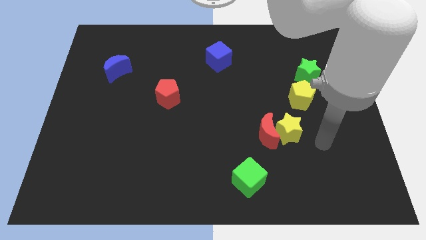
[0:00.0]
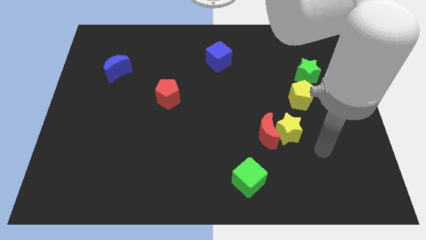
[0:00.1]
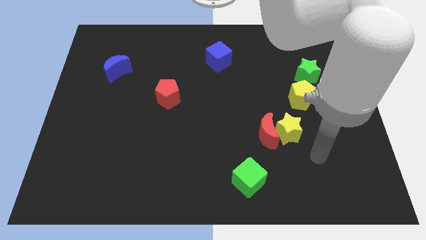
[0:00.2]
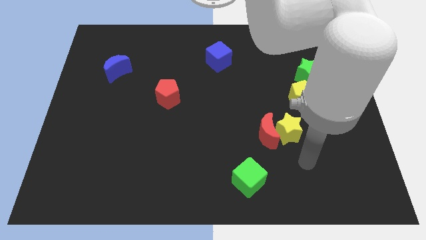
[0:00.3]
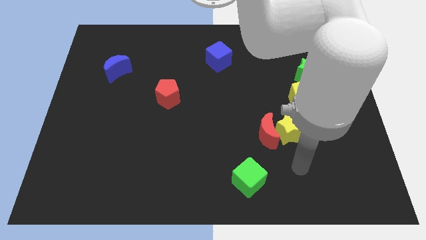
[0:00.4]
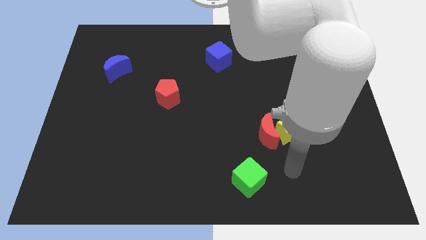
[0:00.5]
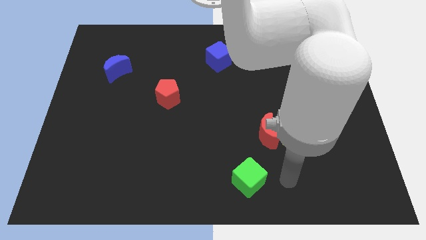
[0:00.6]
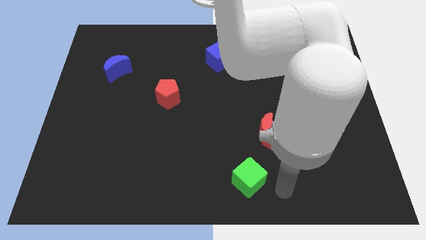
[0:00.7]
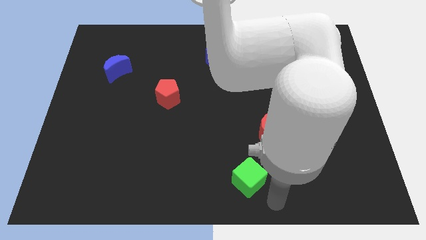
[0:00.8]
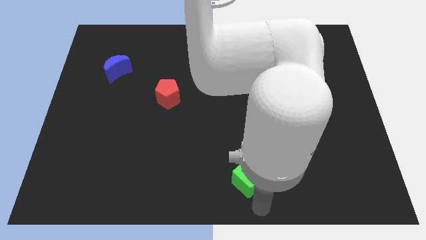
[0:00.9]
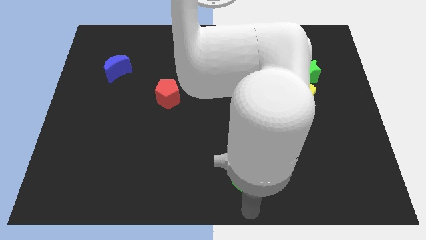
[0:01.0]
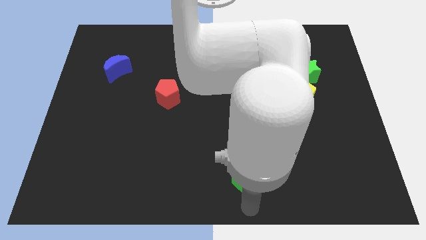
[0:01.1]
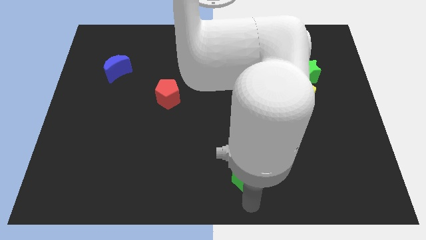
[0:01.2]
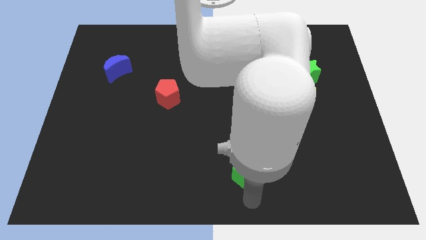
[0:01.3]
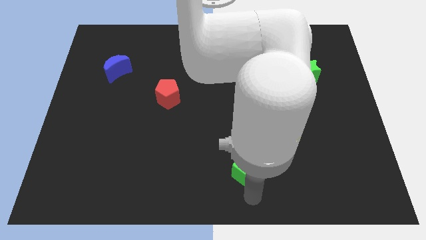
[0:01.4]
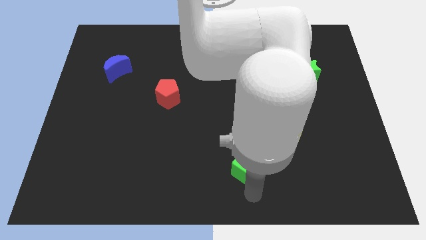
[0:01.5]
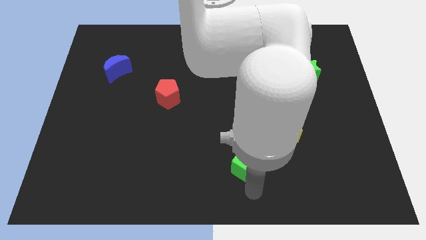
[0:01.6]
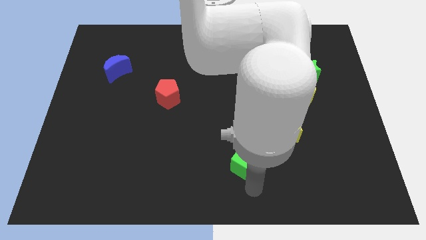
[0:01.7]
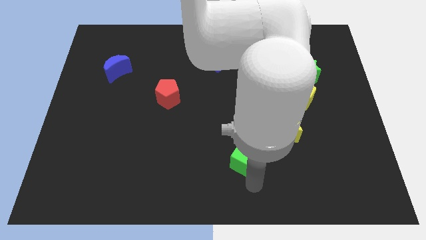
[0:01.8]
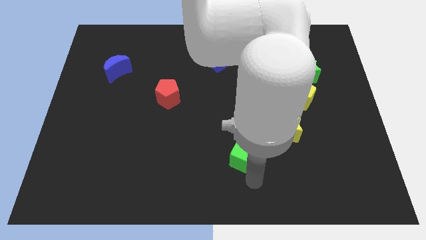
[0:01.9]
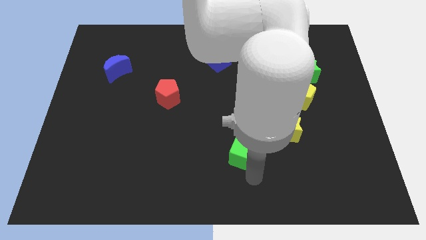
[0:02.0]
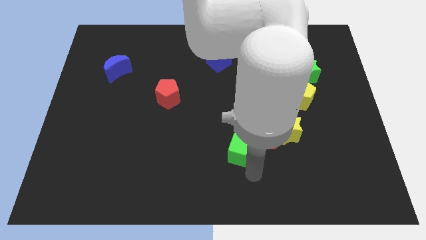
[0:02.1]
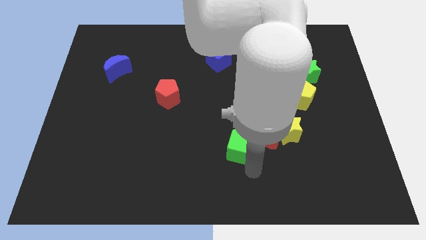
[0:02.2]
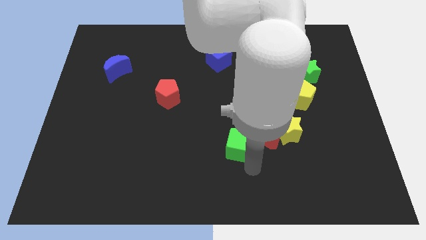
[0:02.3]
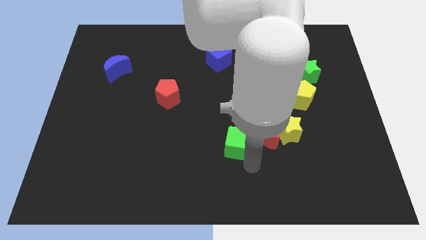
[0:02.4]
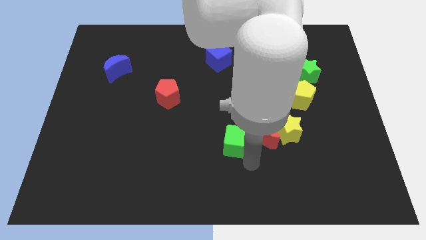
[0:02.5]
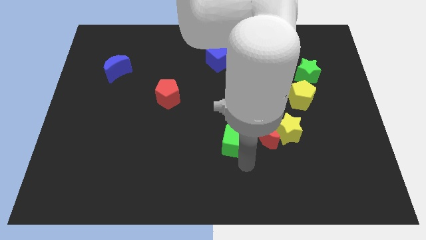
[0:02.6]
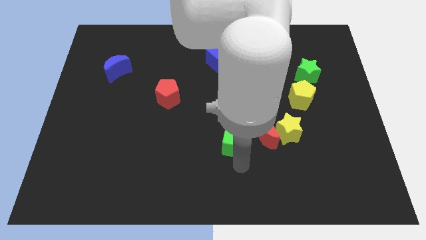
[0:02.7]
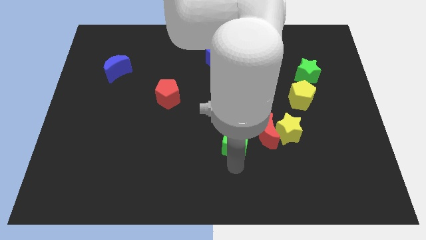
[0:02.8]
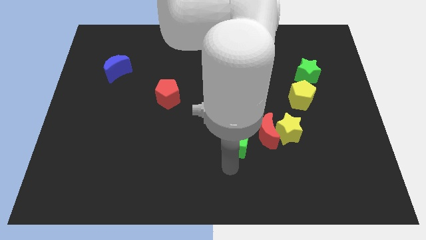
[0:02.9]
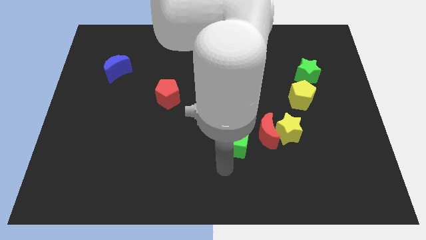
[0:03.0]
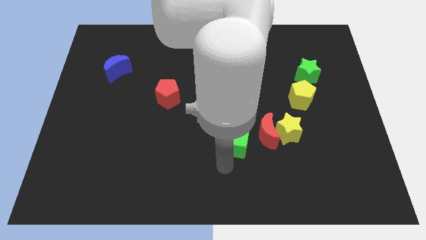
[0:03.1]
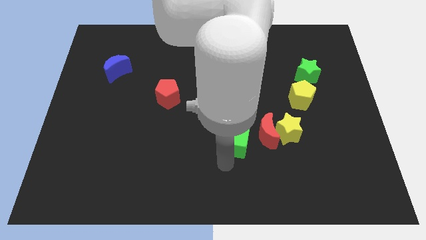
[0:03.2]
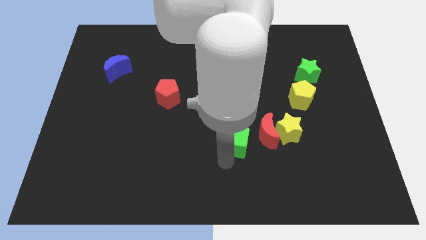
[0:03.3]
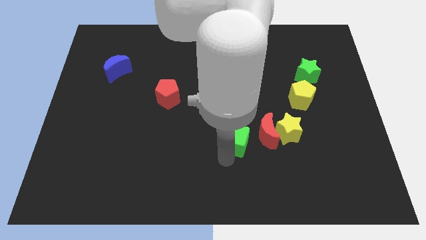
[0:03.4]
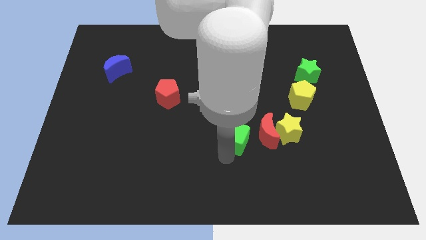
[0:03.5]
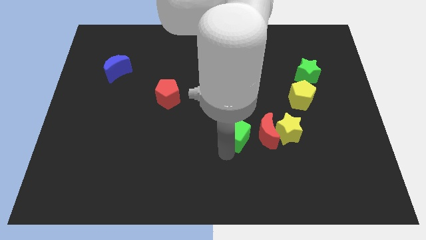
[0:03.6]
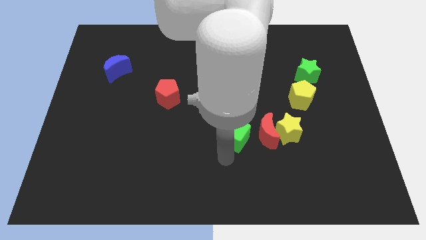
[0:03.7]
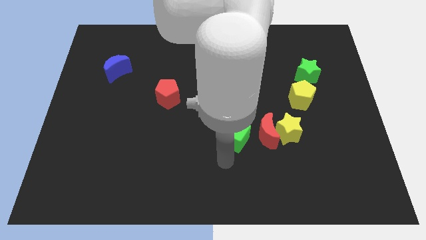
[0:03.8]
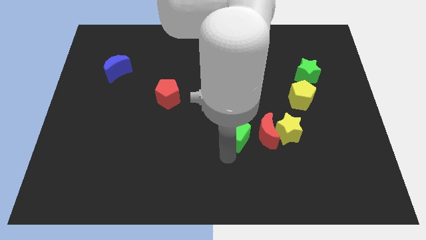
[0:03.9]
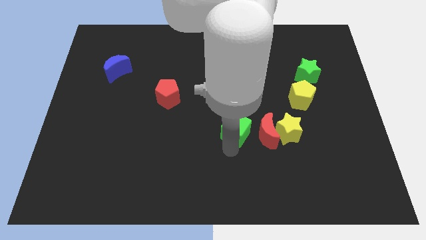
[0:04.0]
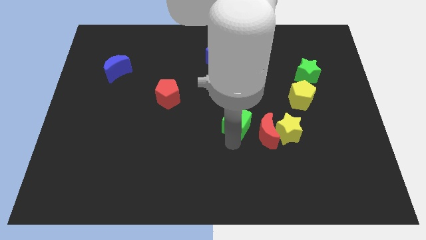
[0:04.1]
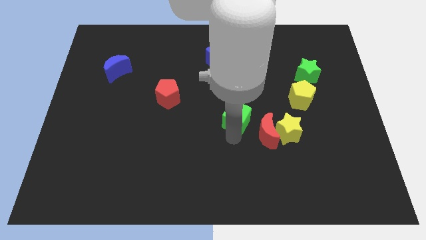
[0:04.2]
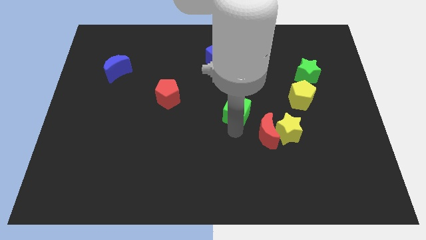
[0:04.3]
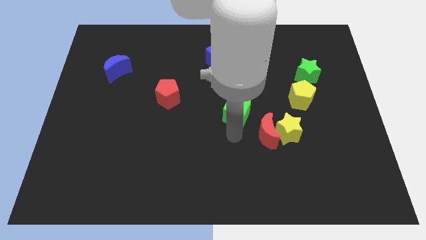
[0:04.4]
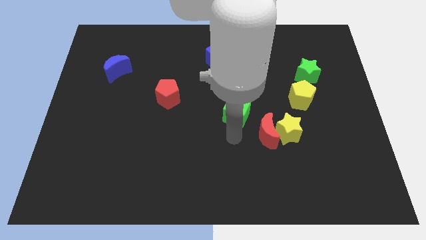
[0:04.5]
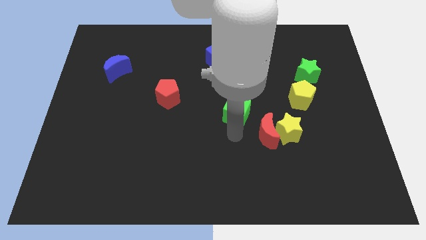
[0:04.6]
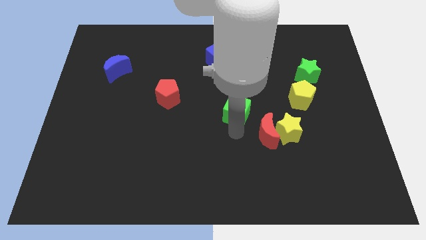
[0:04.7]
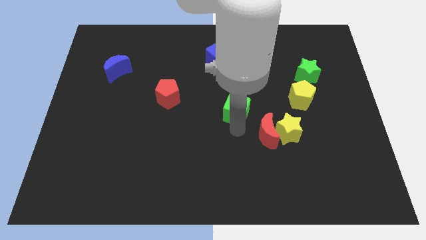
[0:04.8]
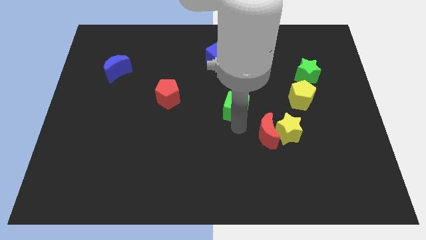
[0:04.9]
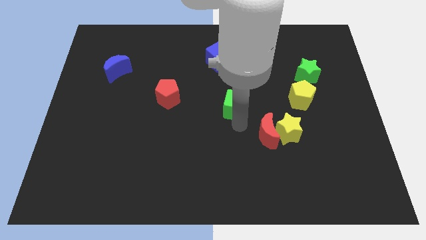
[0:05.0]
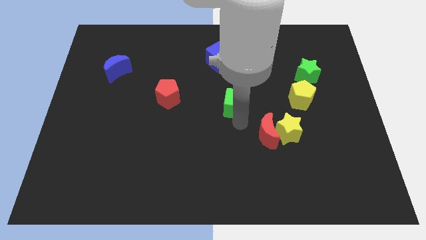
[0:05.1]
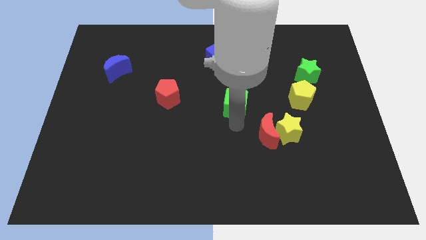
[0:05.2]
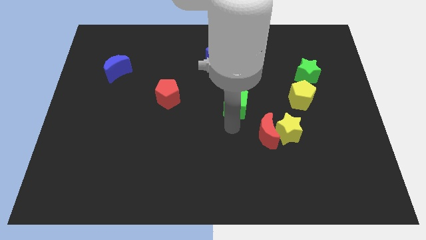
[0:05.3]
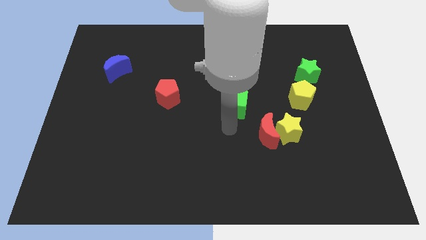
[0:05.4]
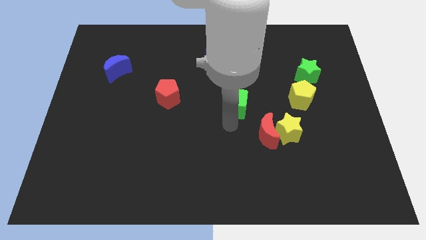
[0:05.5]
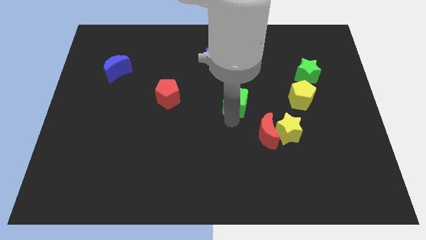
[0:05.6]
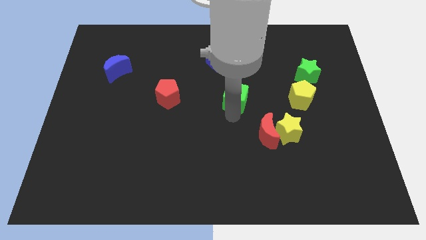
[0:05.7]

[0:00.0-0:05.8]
slide the green cube upwards

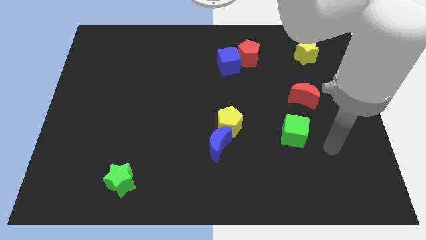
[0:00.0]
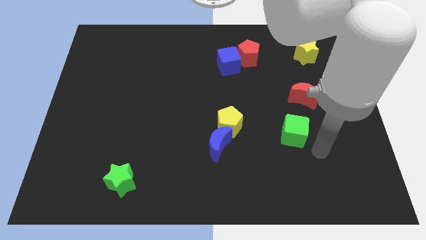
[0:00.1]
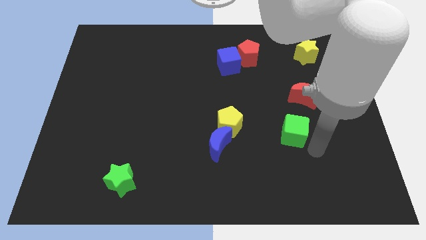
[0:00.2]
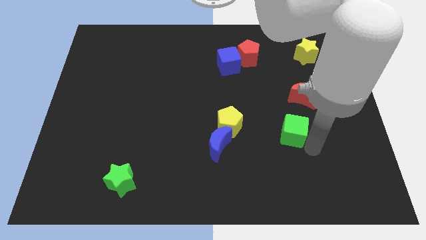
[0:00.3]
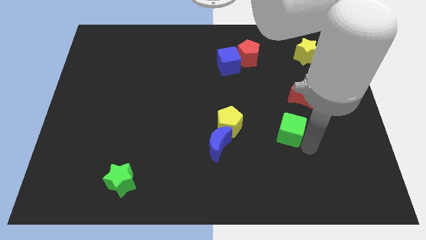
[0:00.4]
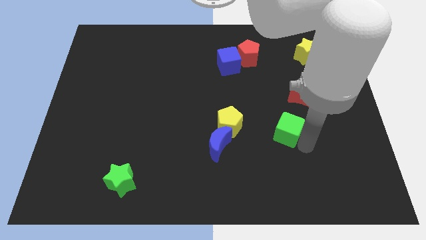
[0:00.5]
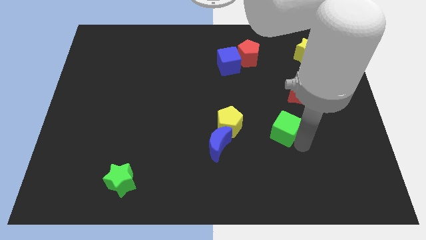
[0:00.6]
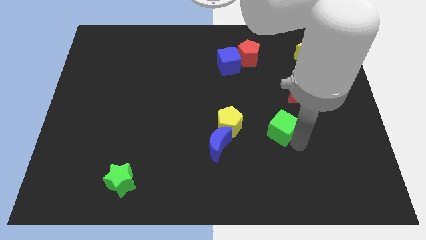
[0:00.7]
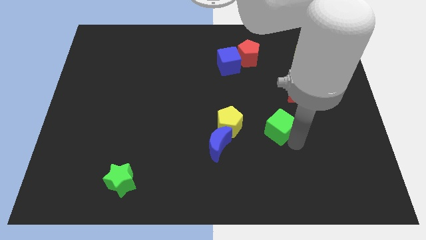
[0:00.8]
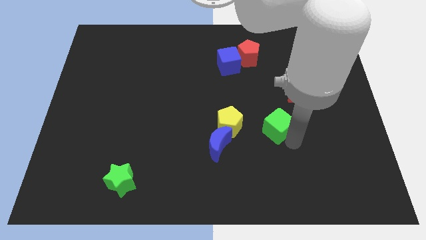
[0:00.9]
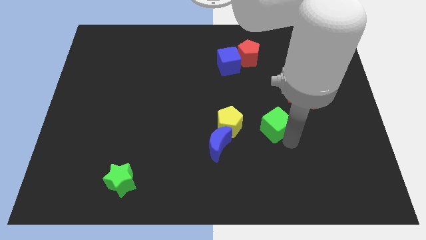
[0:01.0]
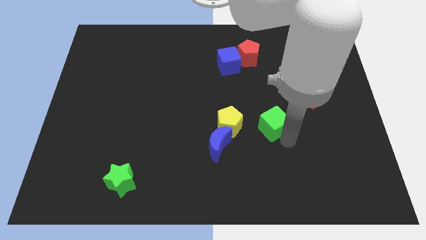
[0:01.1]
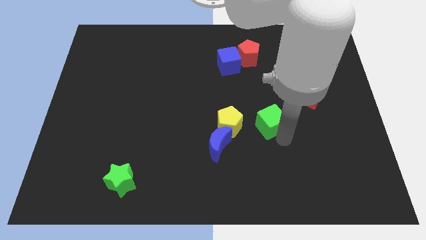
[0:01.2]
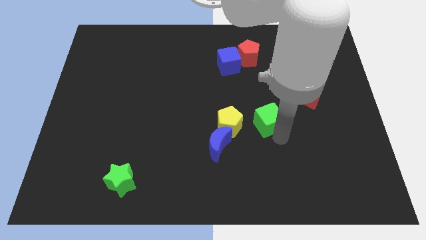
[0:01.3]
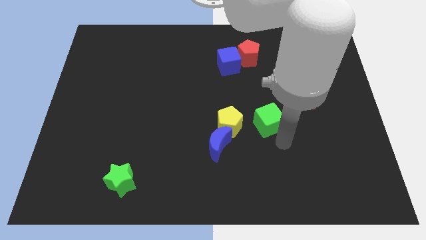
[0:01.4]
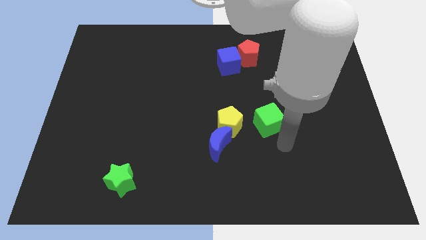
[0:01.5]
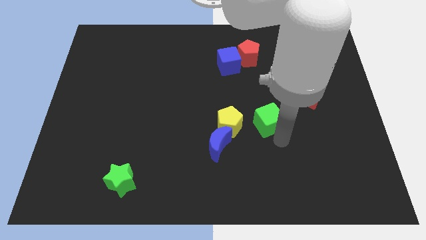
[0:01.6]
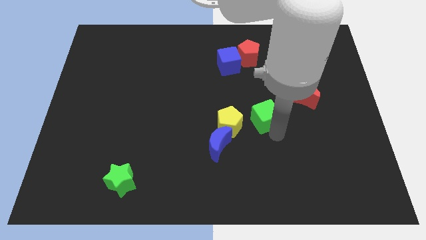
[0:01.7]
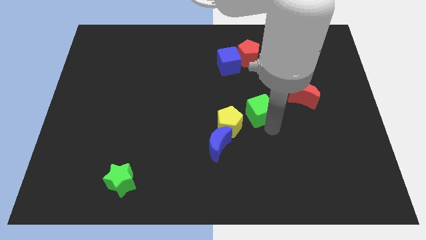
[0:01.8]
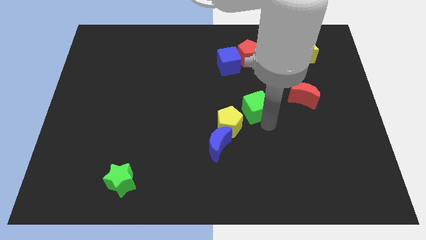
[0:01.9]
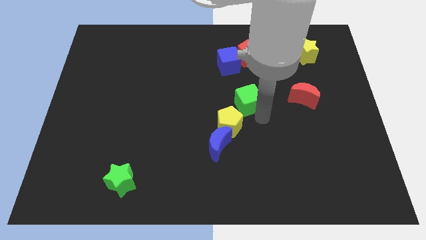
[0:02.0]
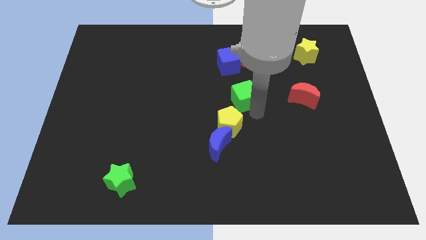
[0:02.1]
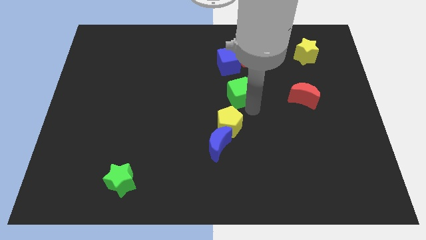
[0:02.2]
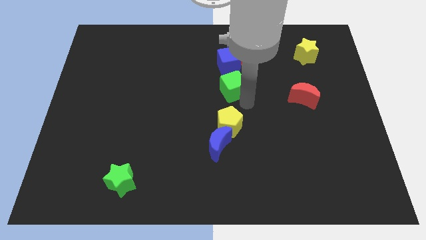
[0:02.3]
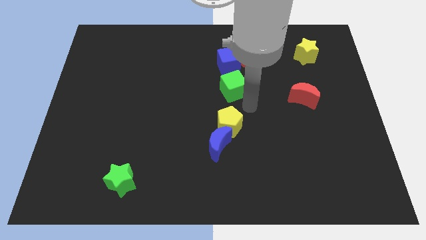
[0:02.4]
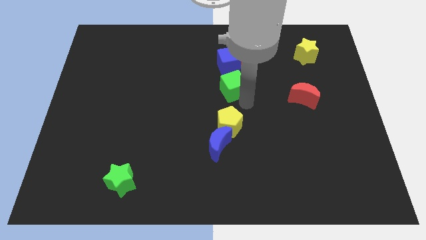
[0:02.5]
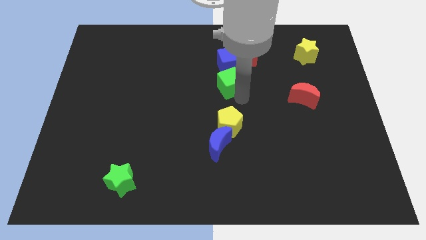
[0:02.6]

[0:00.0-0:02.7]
slide the green cube diagonally upwards and to the left
